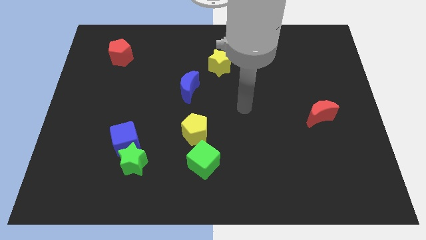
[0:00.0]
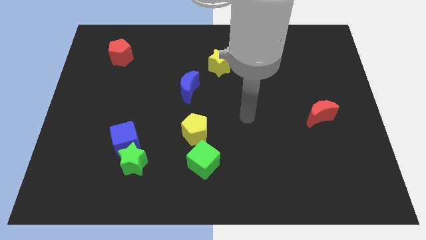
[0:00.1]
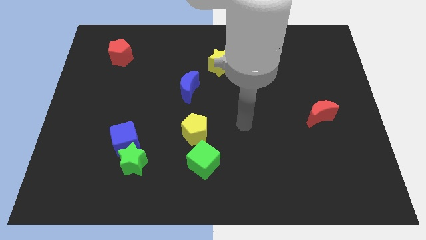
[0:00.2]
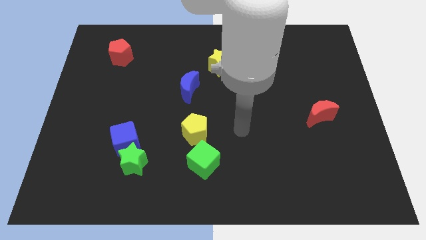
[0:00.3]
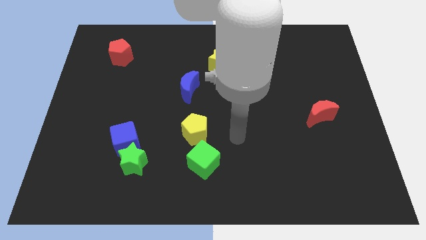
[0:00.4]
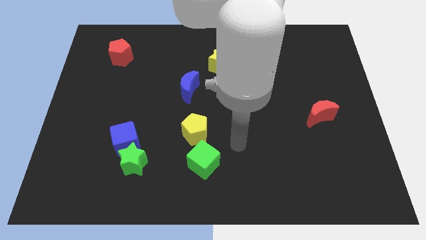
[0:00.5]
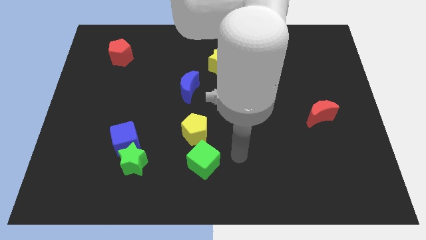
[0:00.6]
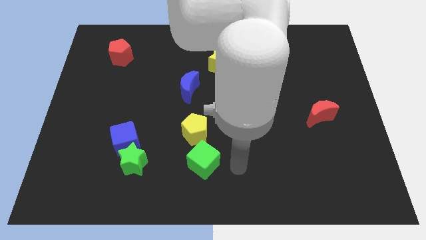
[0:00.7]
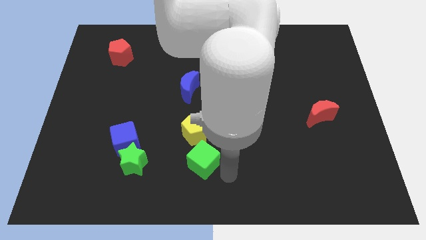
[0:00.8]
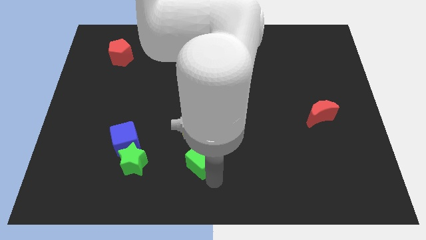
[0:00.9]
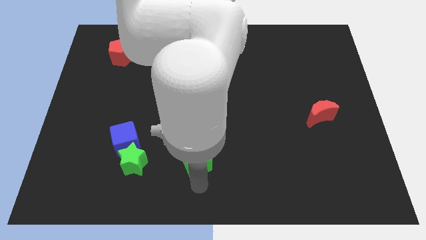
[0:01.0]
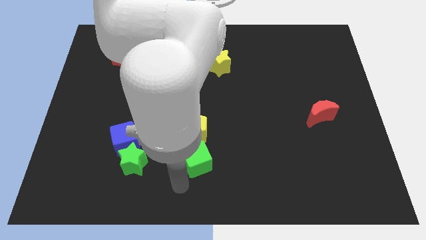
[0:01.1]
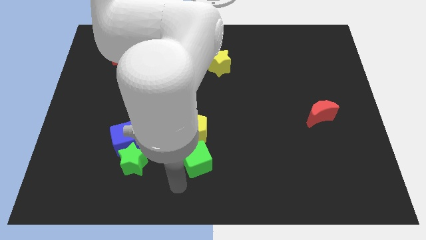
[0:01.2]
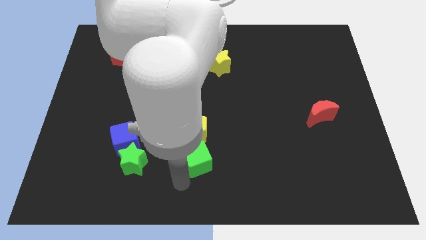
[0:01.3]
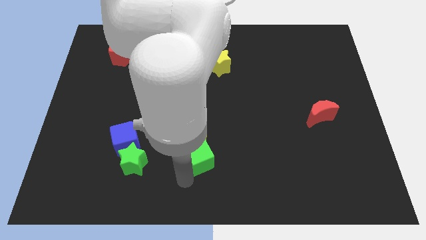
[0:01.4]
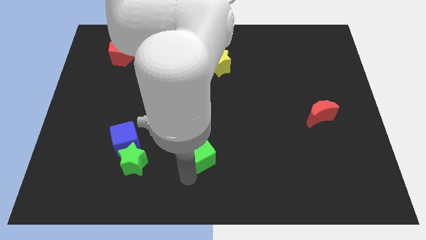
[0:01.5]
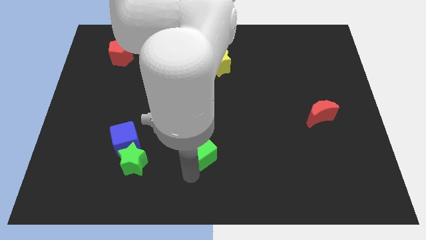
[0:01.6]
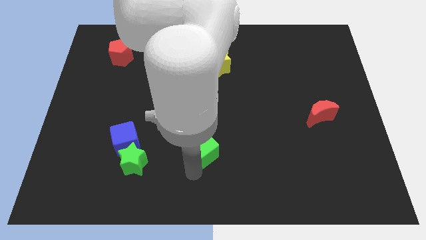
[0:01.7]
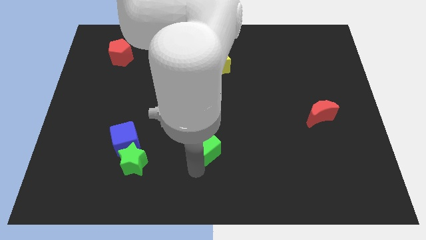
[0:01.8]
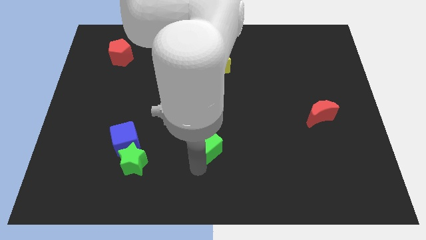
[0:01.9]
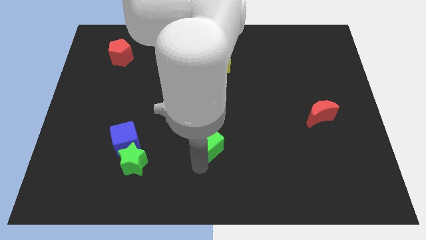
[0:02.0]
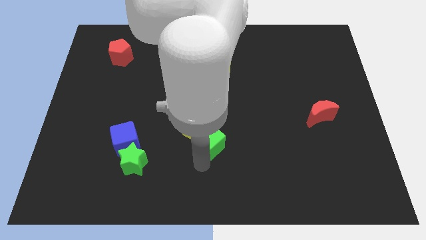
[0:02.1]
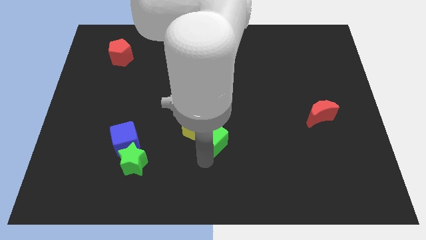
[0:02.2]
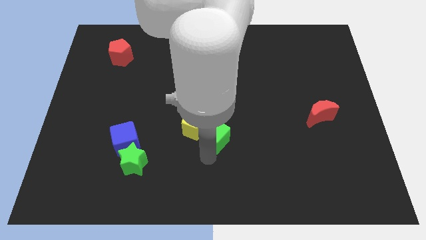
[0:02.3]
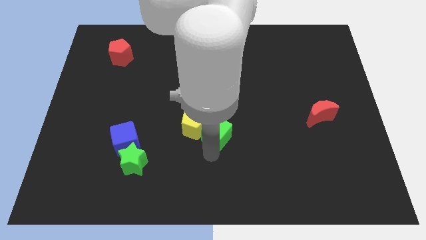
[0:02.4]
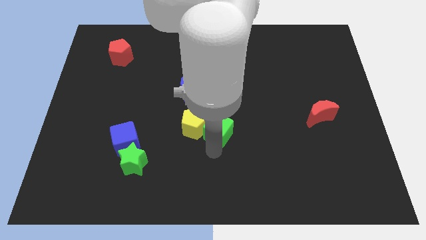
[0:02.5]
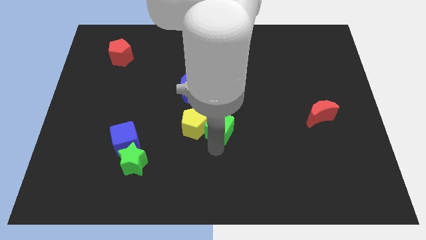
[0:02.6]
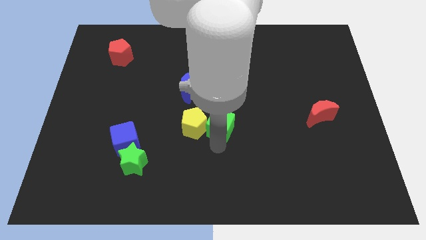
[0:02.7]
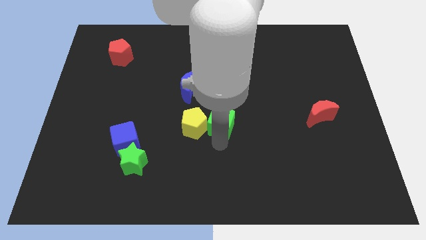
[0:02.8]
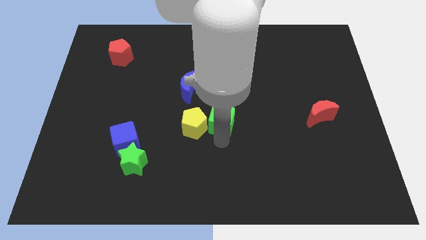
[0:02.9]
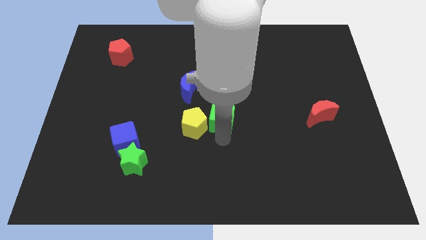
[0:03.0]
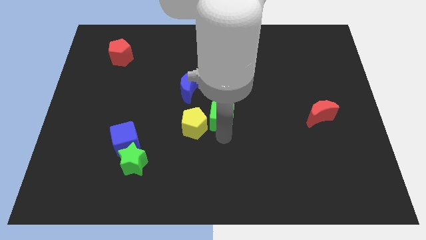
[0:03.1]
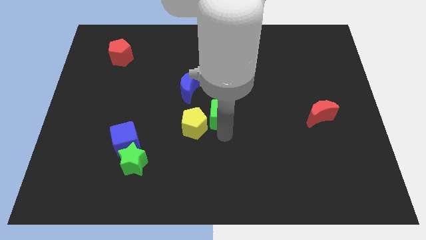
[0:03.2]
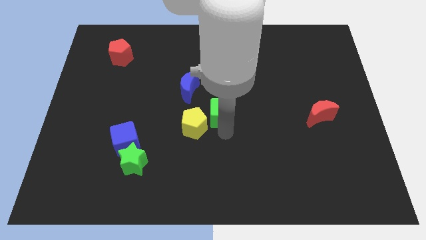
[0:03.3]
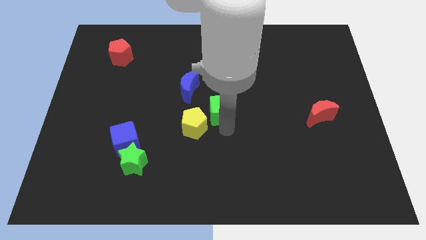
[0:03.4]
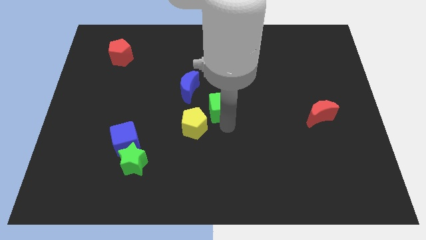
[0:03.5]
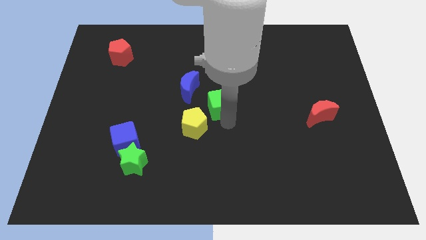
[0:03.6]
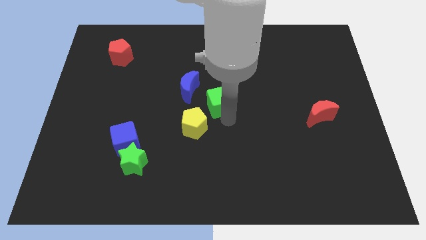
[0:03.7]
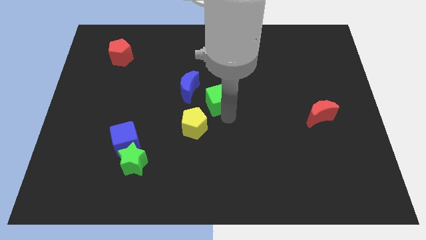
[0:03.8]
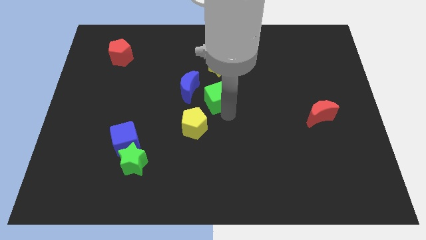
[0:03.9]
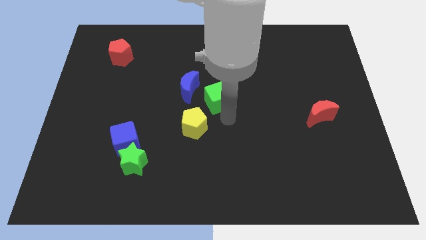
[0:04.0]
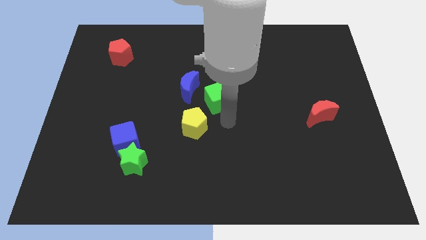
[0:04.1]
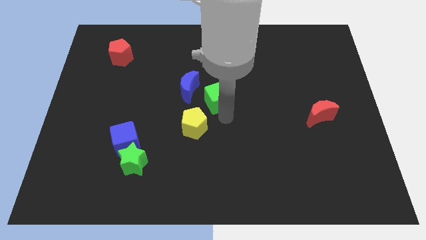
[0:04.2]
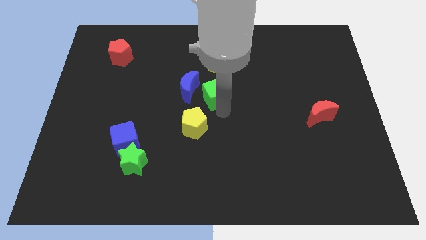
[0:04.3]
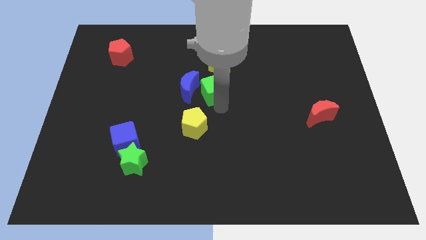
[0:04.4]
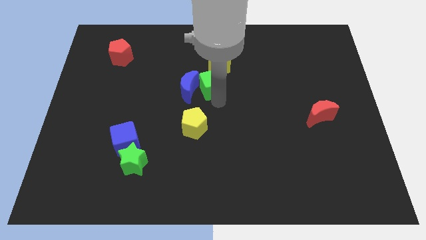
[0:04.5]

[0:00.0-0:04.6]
slide the green cube up

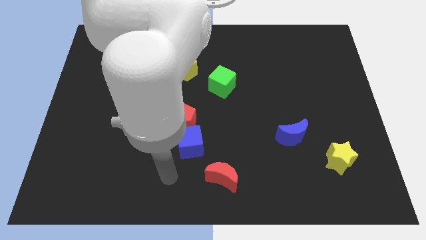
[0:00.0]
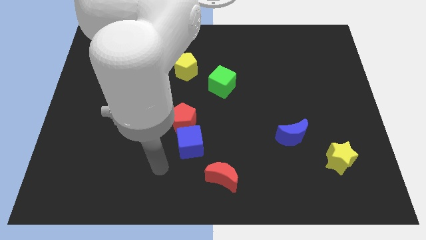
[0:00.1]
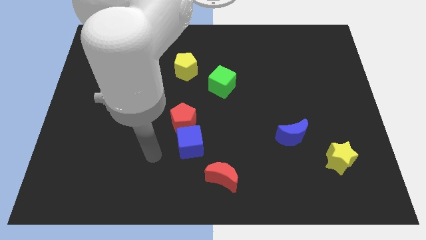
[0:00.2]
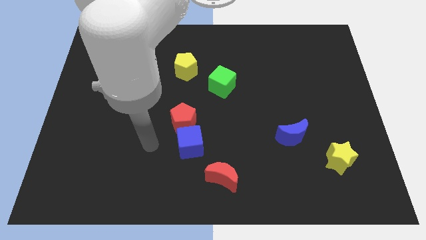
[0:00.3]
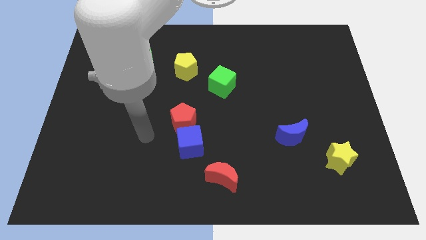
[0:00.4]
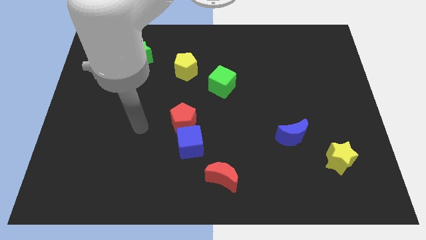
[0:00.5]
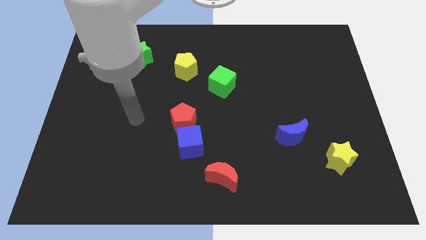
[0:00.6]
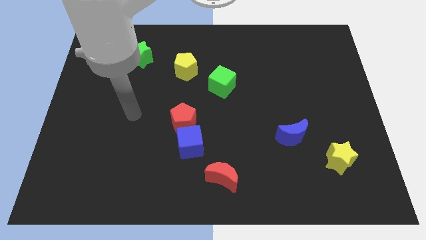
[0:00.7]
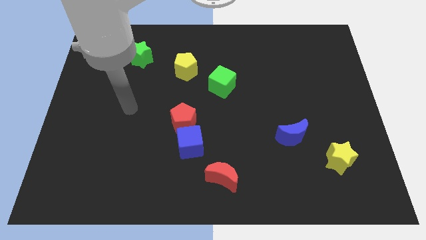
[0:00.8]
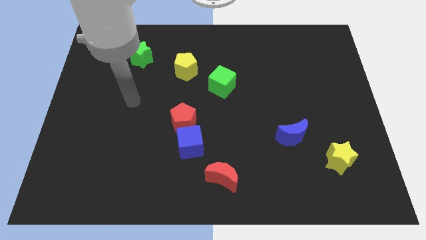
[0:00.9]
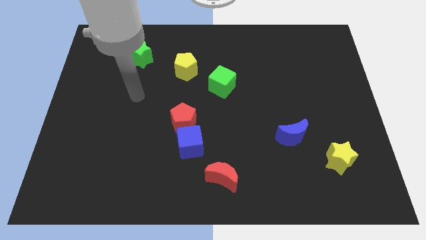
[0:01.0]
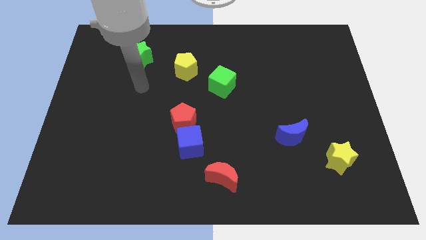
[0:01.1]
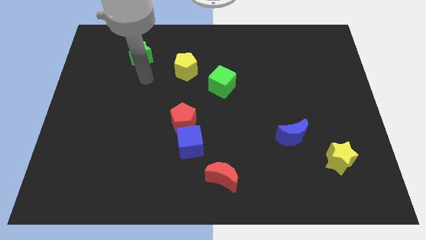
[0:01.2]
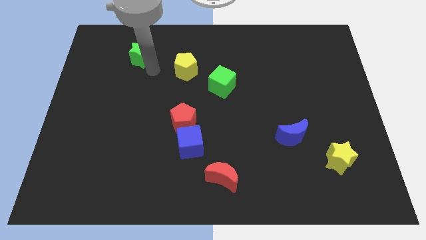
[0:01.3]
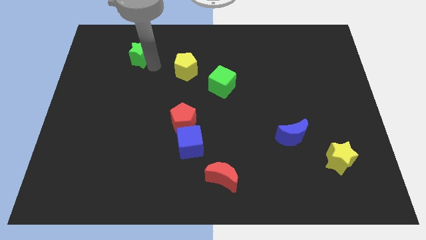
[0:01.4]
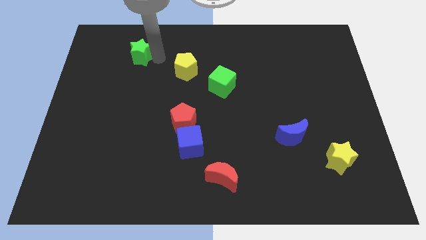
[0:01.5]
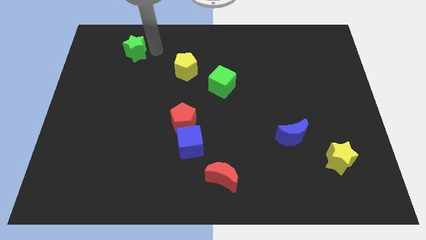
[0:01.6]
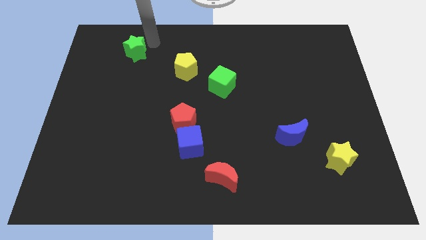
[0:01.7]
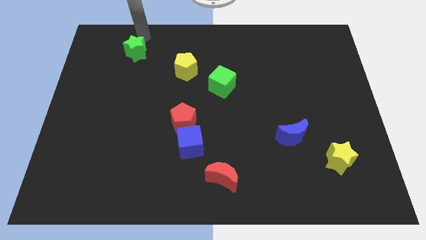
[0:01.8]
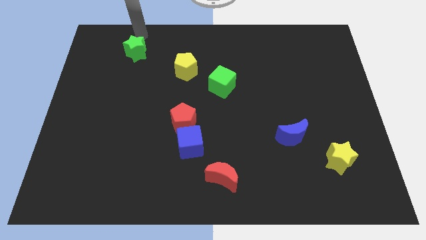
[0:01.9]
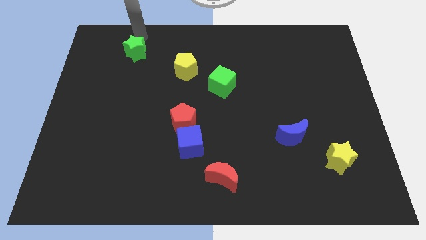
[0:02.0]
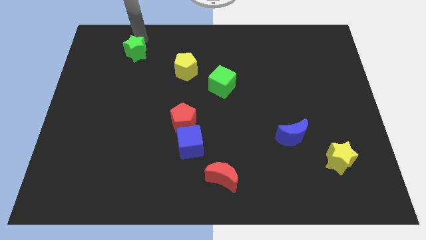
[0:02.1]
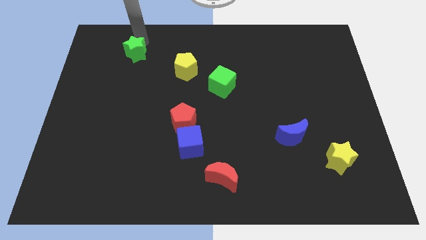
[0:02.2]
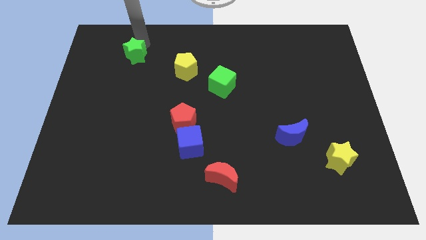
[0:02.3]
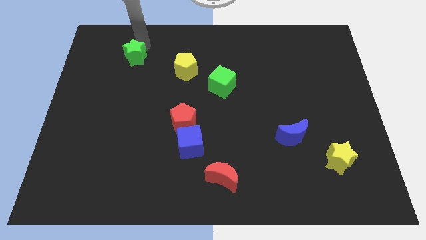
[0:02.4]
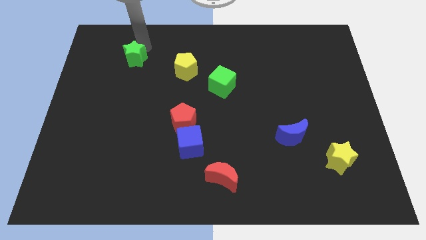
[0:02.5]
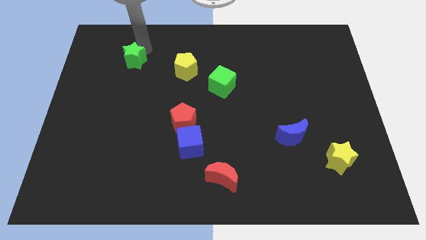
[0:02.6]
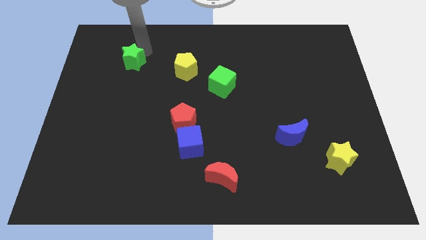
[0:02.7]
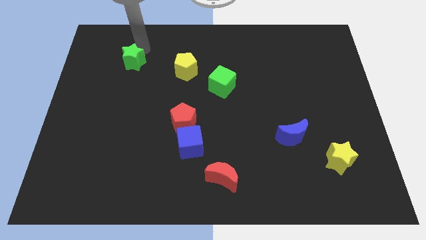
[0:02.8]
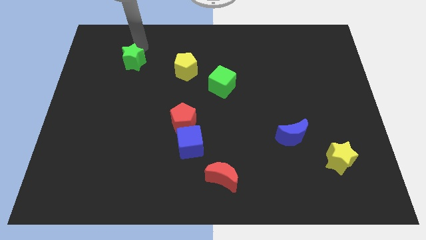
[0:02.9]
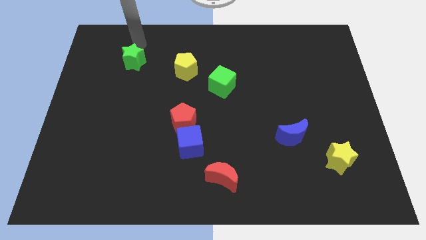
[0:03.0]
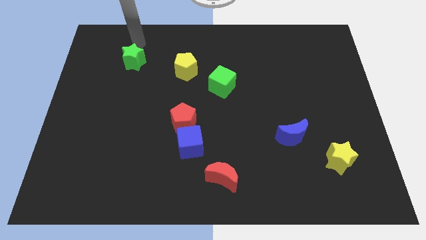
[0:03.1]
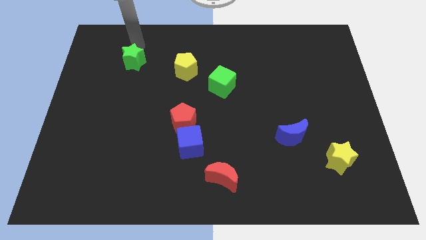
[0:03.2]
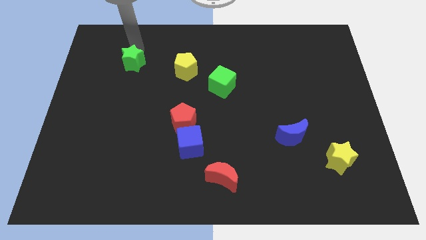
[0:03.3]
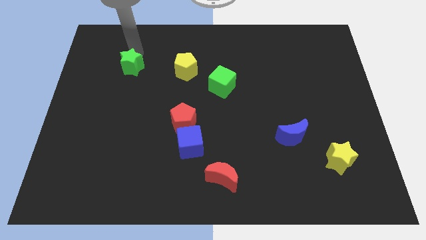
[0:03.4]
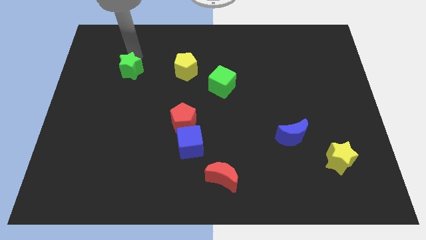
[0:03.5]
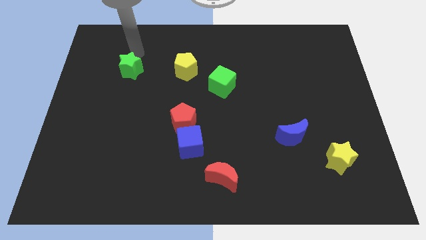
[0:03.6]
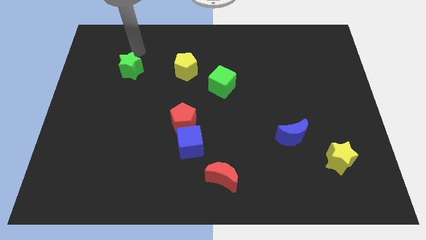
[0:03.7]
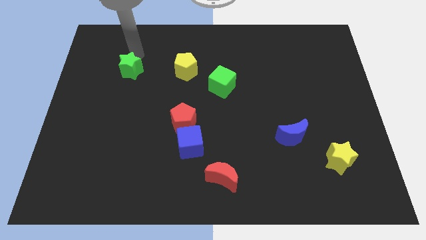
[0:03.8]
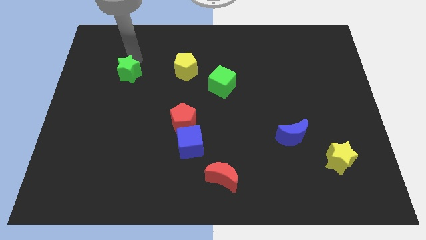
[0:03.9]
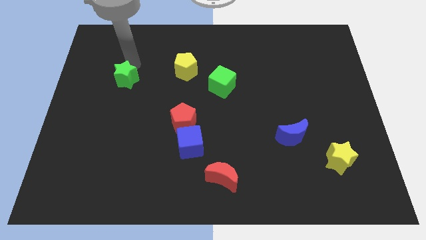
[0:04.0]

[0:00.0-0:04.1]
slightly move the green star down
